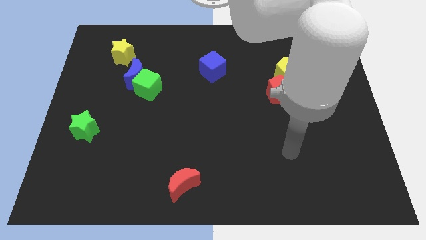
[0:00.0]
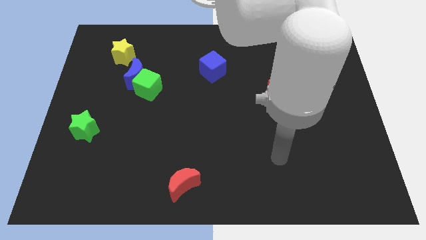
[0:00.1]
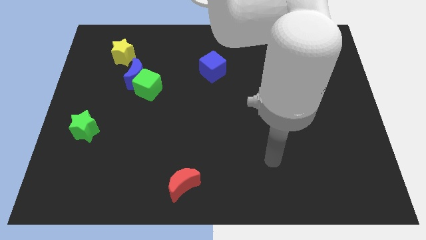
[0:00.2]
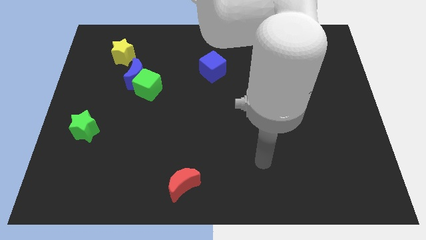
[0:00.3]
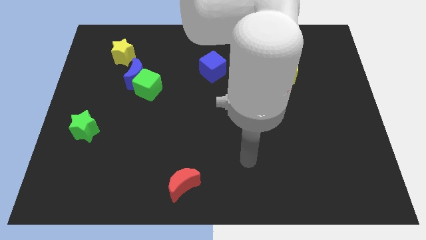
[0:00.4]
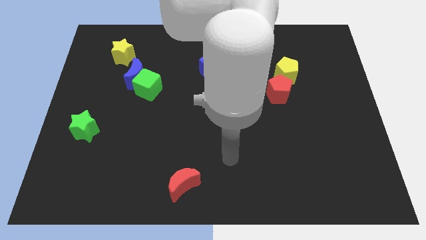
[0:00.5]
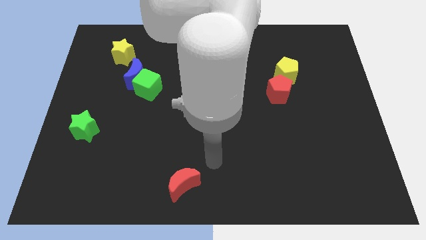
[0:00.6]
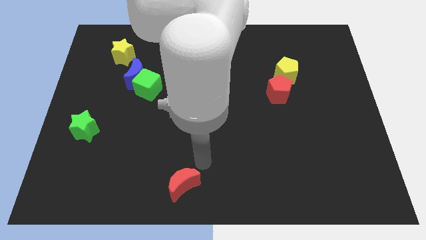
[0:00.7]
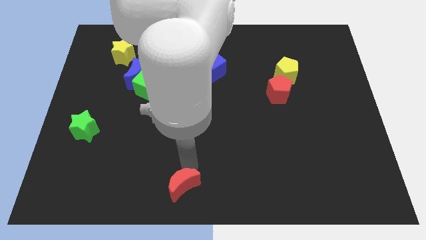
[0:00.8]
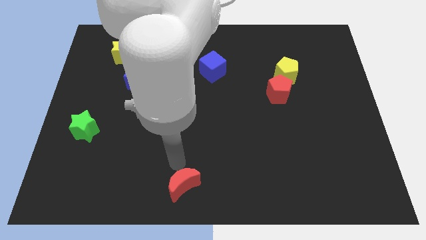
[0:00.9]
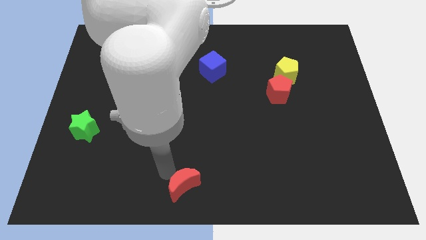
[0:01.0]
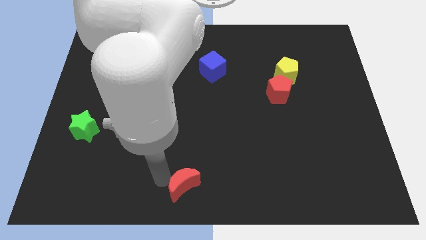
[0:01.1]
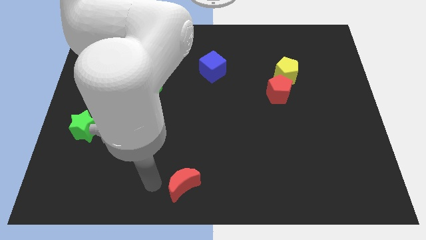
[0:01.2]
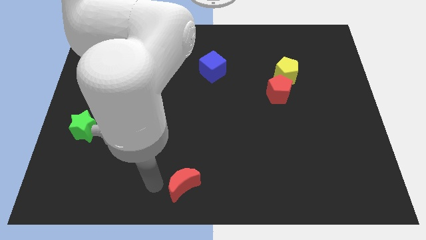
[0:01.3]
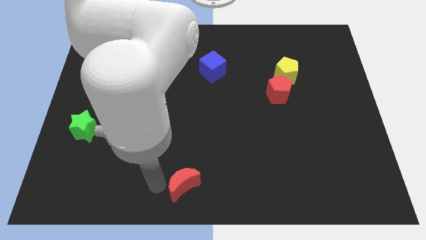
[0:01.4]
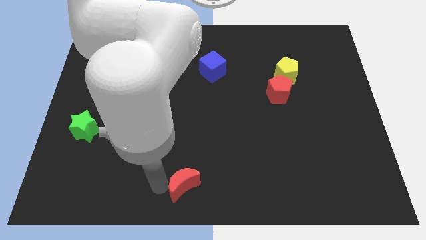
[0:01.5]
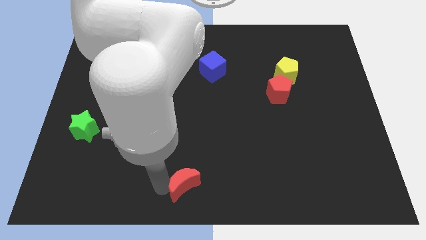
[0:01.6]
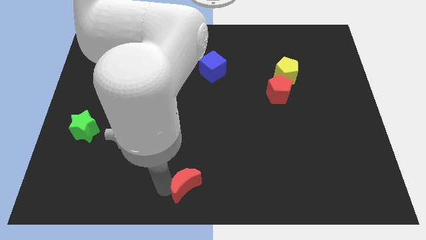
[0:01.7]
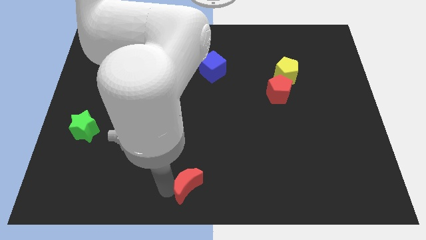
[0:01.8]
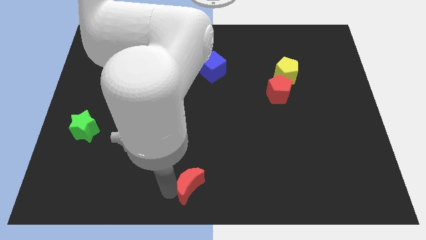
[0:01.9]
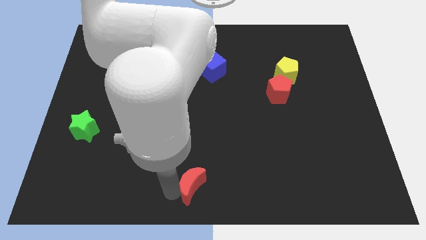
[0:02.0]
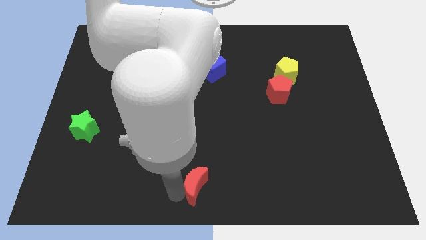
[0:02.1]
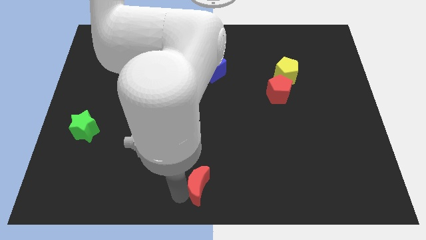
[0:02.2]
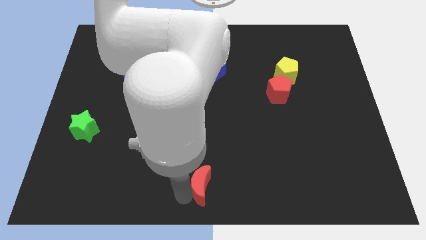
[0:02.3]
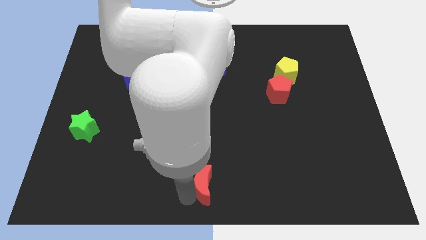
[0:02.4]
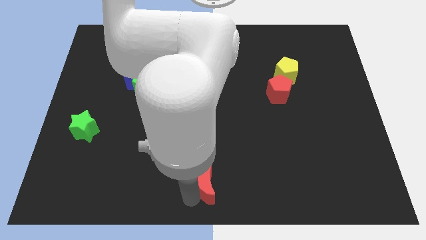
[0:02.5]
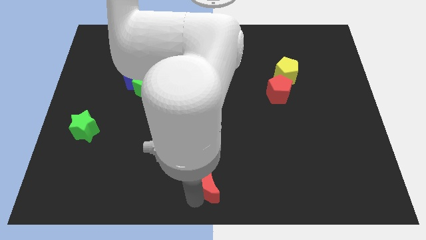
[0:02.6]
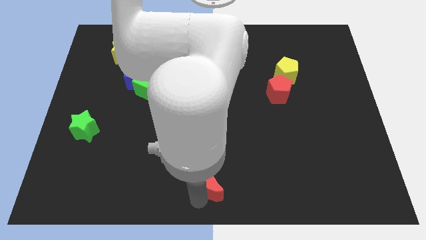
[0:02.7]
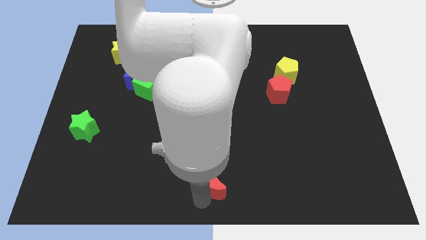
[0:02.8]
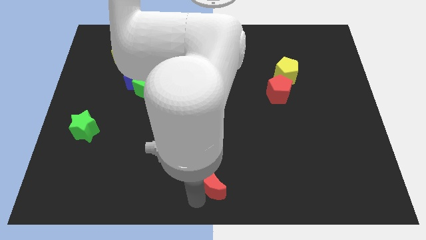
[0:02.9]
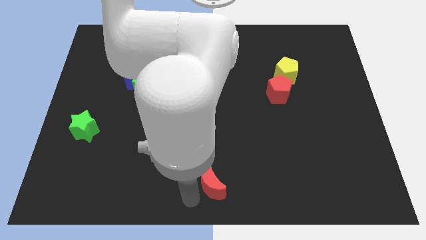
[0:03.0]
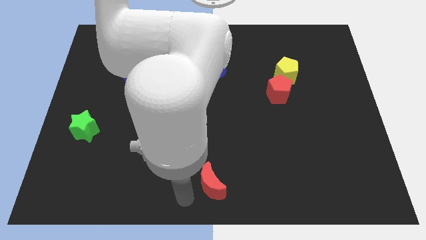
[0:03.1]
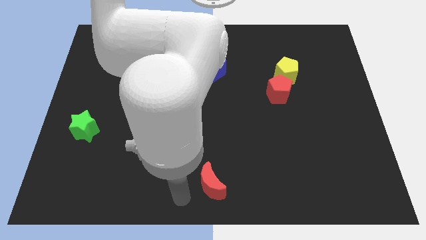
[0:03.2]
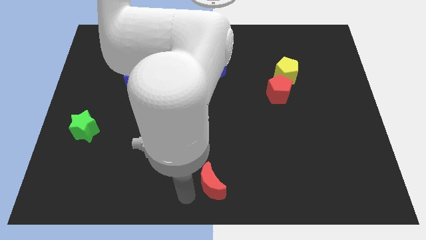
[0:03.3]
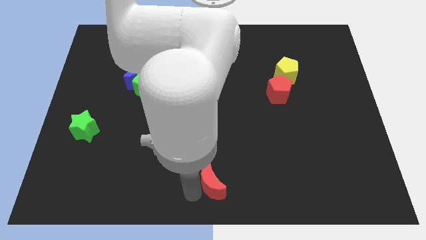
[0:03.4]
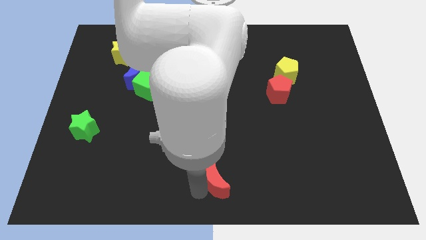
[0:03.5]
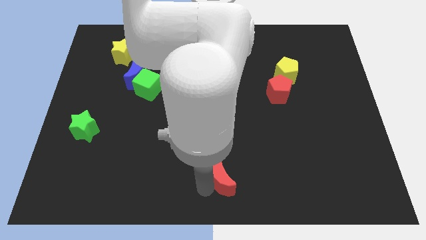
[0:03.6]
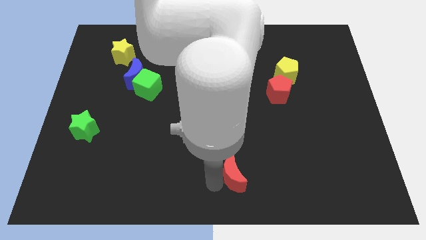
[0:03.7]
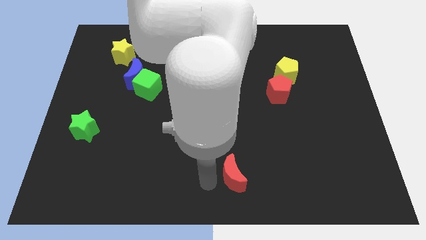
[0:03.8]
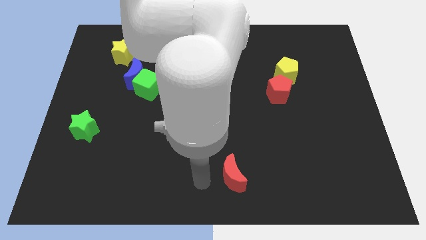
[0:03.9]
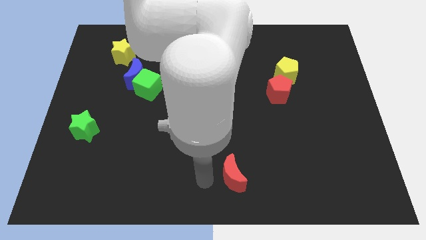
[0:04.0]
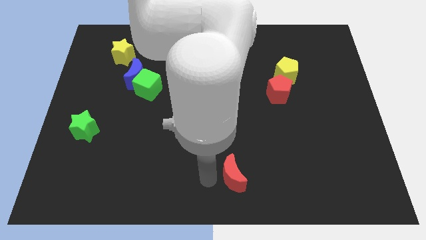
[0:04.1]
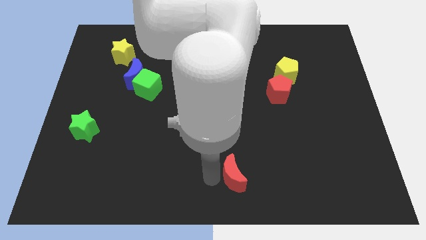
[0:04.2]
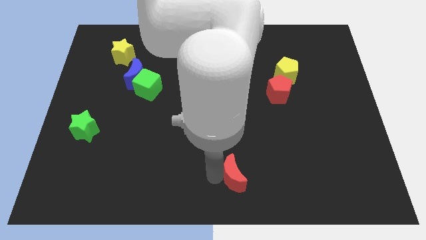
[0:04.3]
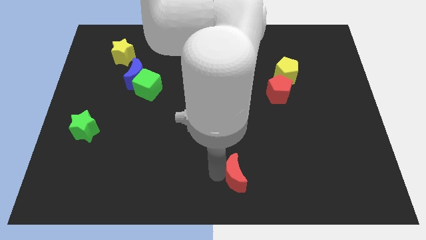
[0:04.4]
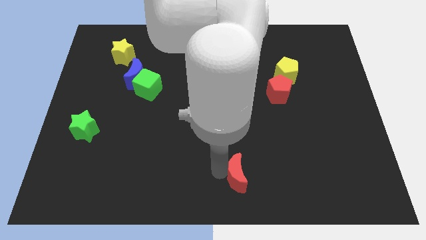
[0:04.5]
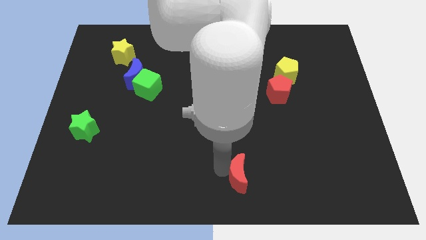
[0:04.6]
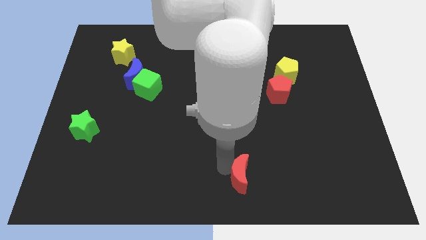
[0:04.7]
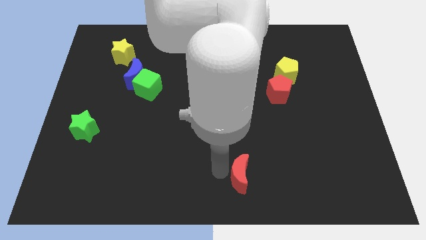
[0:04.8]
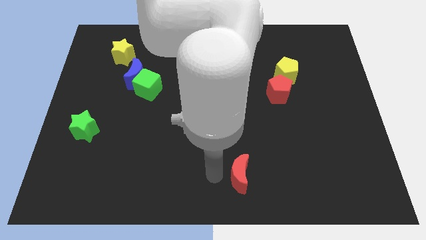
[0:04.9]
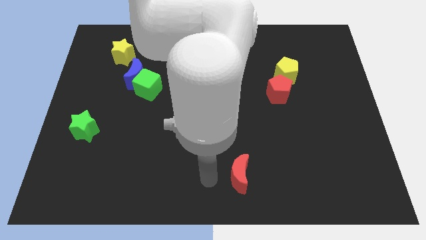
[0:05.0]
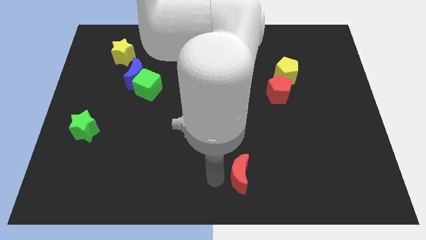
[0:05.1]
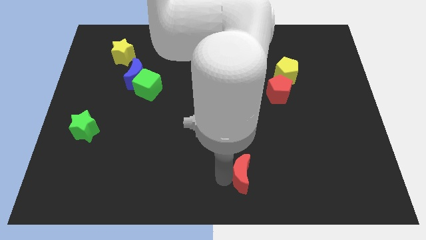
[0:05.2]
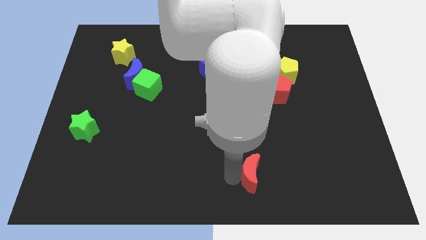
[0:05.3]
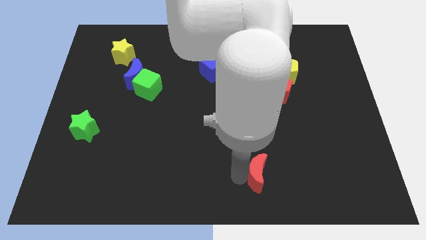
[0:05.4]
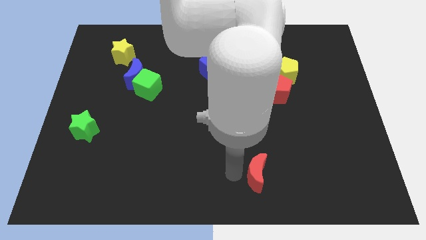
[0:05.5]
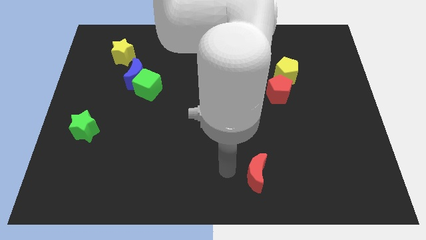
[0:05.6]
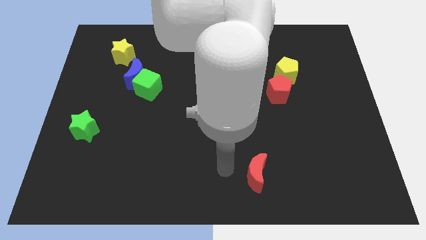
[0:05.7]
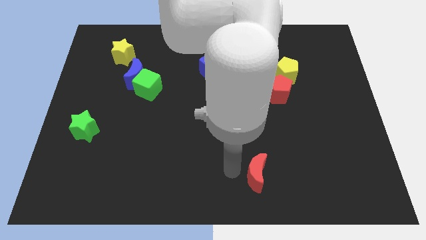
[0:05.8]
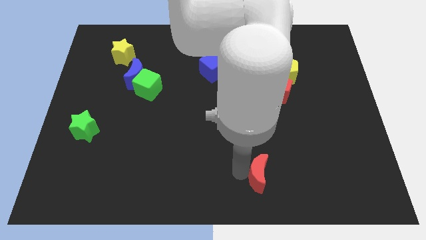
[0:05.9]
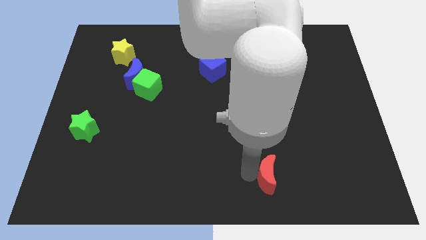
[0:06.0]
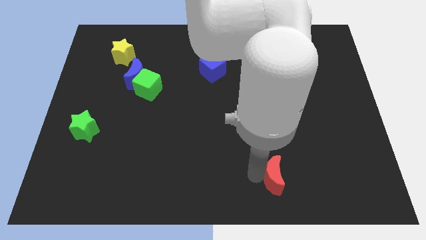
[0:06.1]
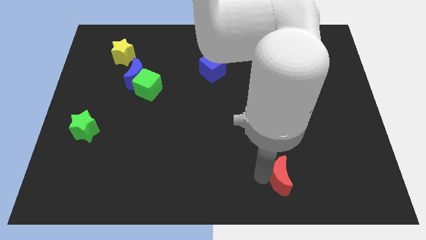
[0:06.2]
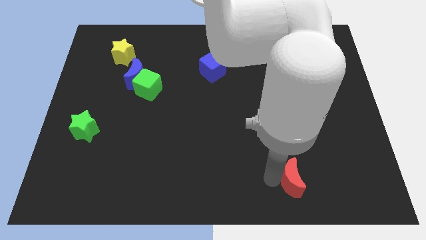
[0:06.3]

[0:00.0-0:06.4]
move the red moon right

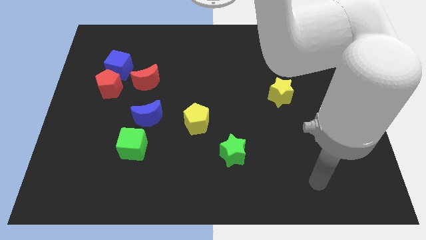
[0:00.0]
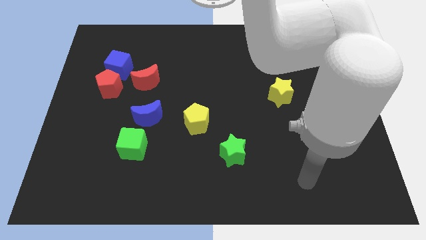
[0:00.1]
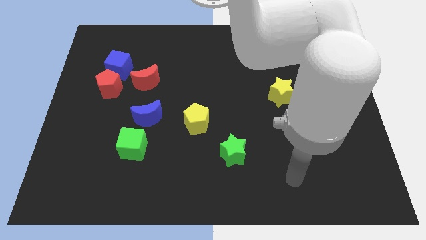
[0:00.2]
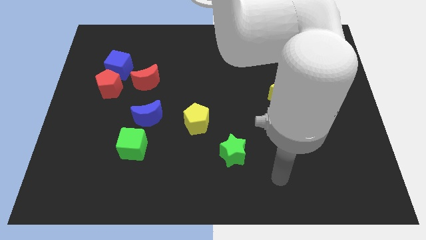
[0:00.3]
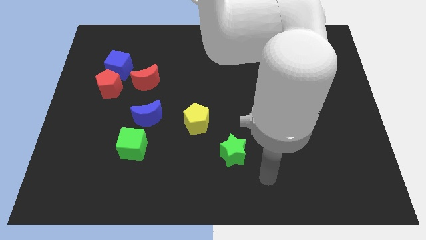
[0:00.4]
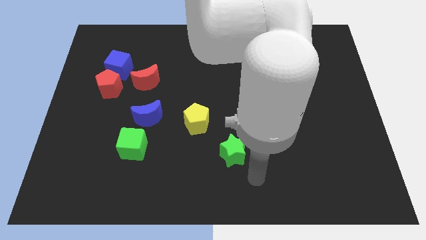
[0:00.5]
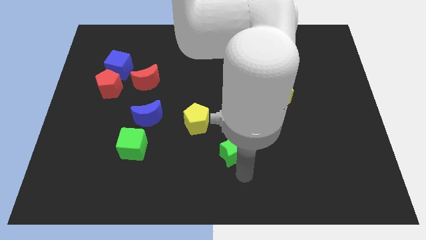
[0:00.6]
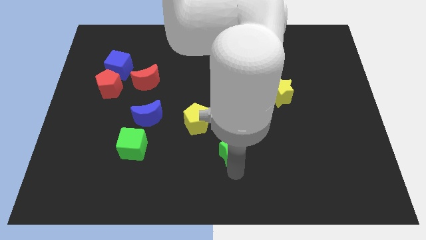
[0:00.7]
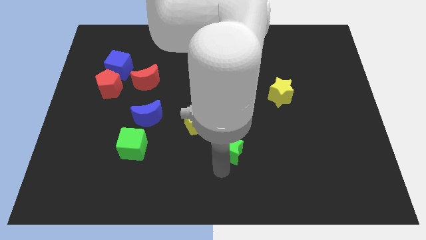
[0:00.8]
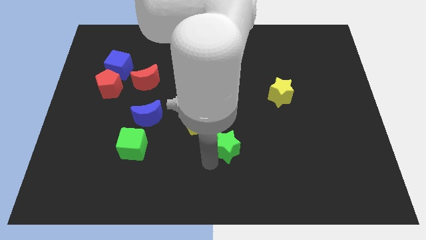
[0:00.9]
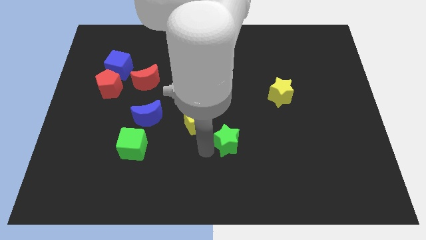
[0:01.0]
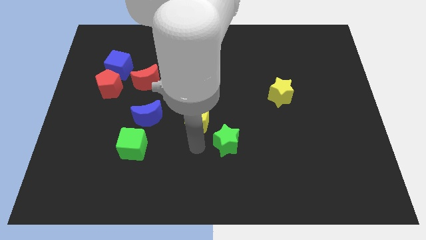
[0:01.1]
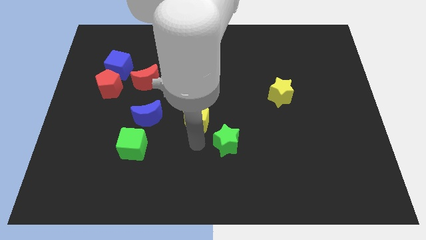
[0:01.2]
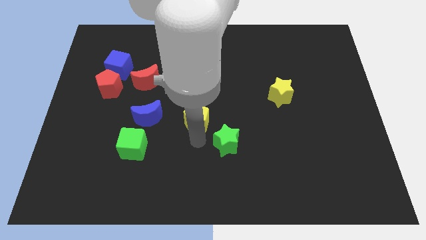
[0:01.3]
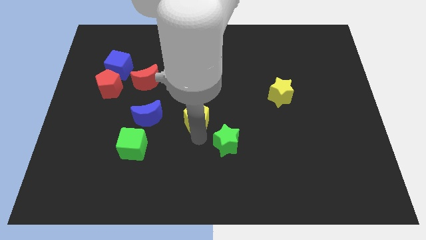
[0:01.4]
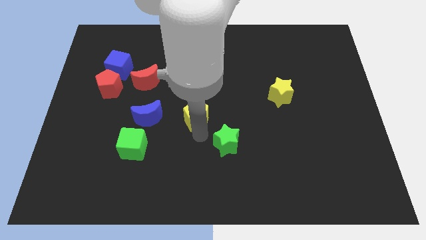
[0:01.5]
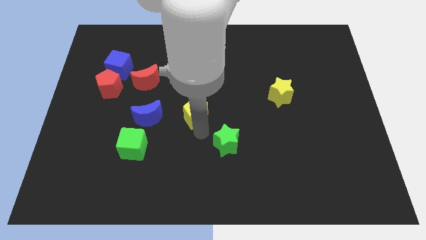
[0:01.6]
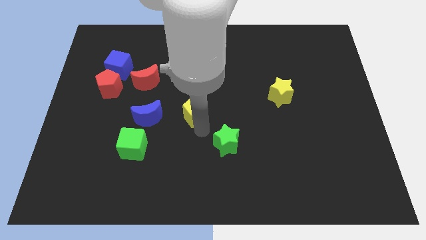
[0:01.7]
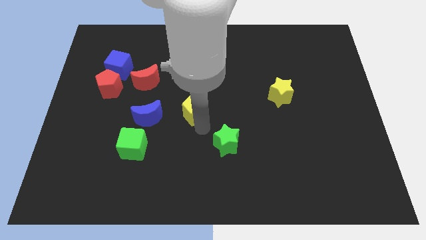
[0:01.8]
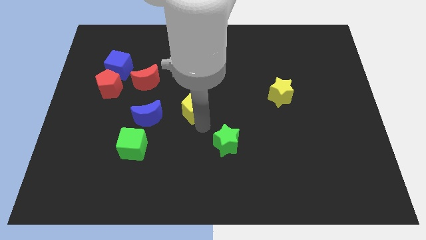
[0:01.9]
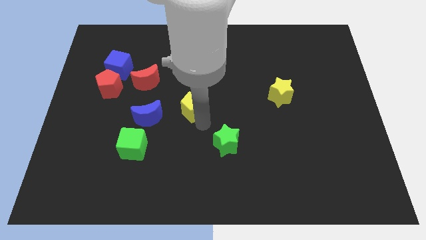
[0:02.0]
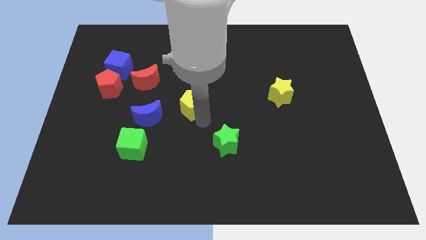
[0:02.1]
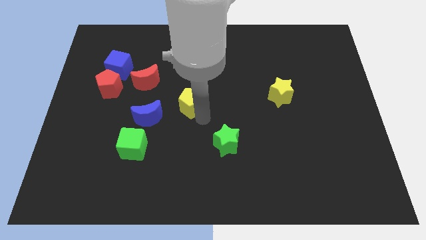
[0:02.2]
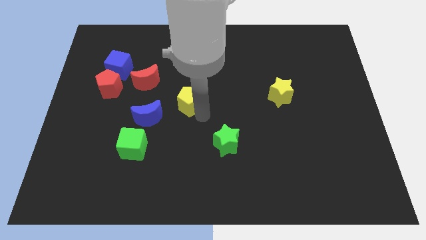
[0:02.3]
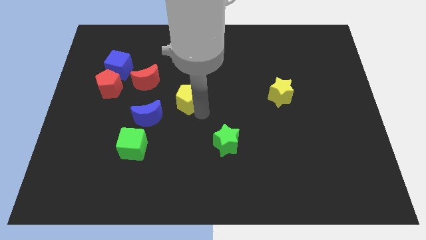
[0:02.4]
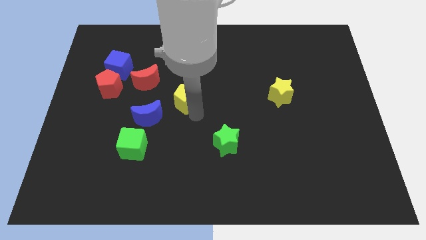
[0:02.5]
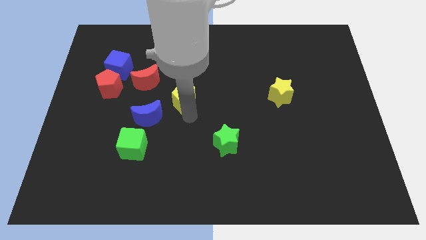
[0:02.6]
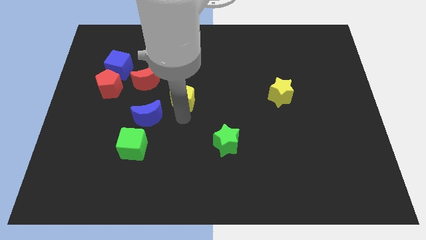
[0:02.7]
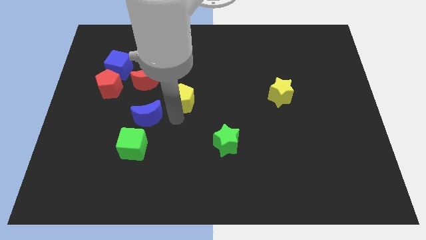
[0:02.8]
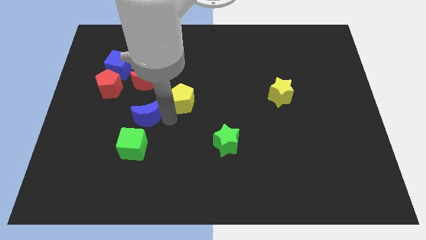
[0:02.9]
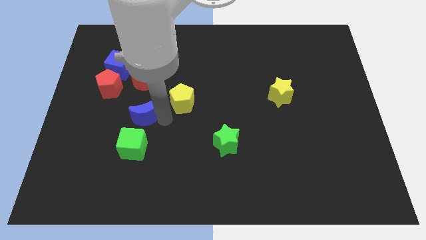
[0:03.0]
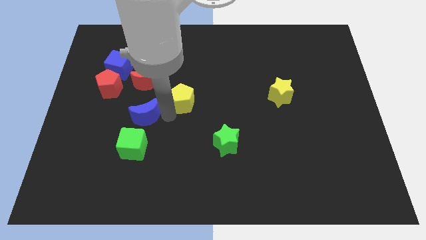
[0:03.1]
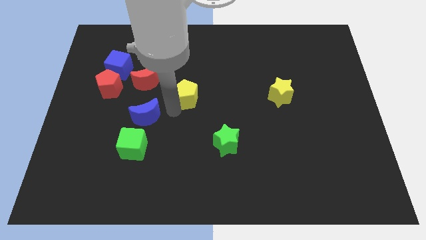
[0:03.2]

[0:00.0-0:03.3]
slide the yellow pentagon up a little
